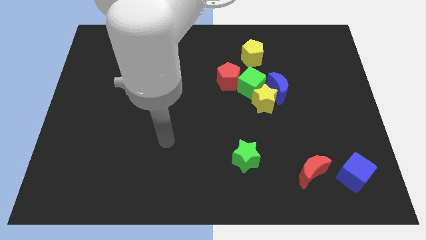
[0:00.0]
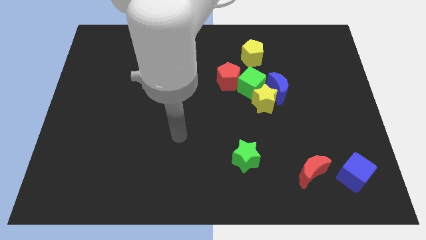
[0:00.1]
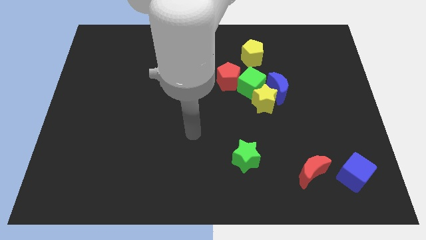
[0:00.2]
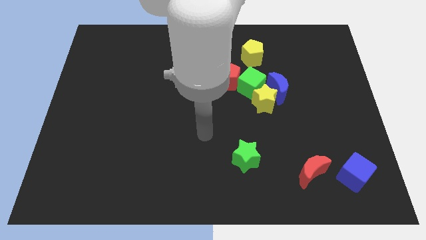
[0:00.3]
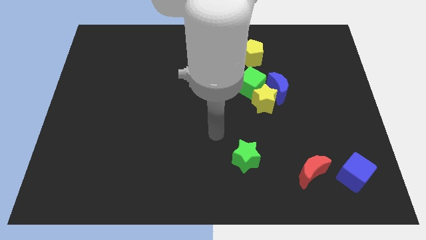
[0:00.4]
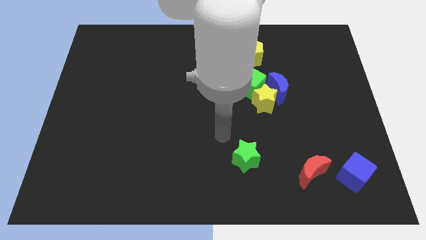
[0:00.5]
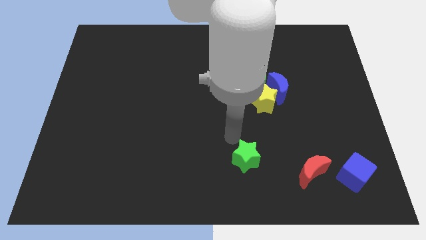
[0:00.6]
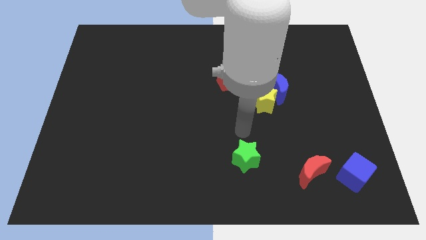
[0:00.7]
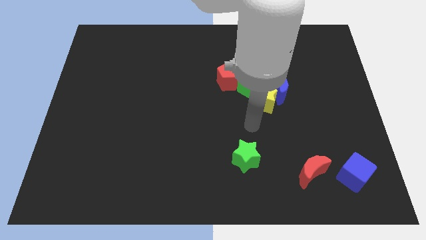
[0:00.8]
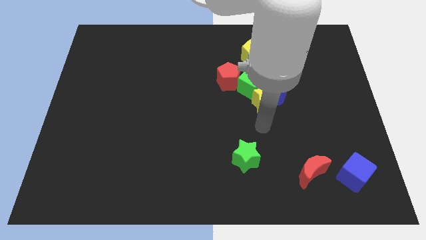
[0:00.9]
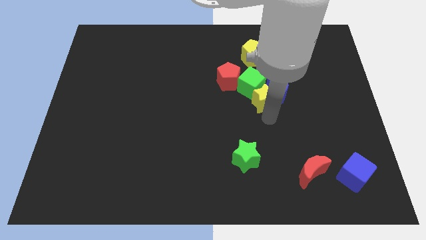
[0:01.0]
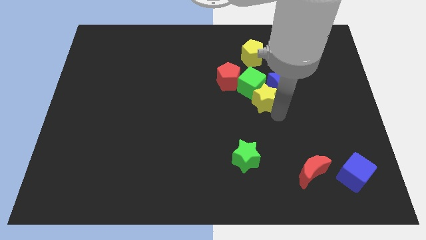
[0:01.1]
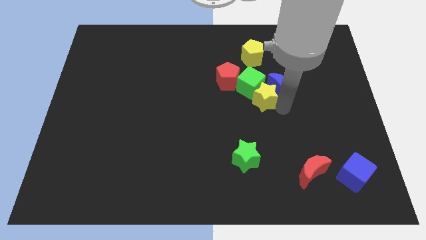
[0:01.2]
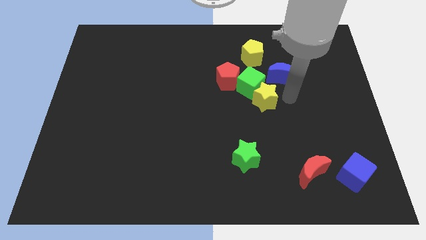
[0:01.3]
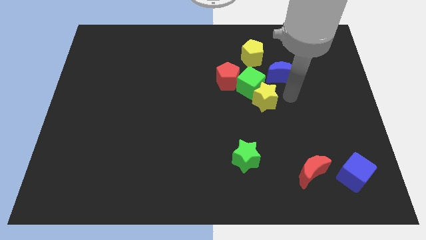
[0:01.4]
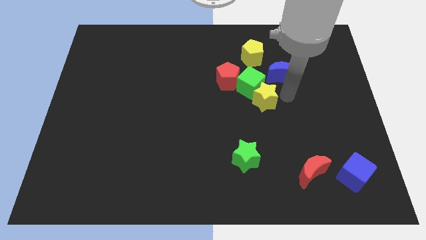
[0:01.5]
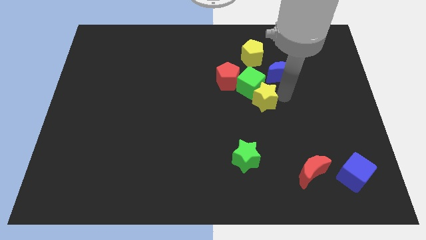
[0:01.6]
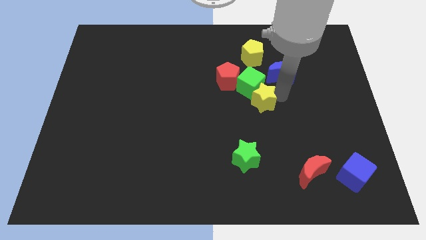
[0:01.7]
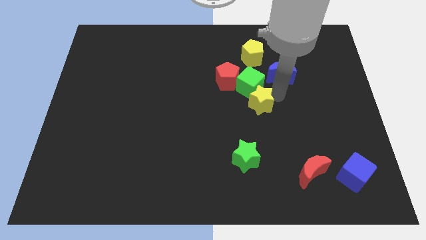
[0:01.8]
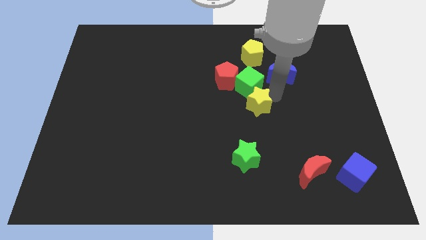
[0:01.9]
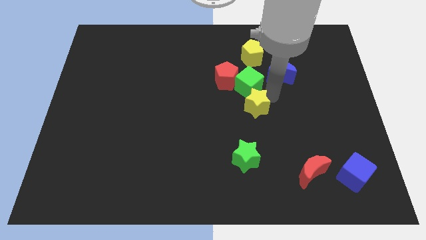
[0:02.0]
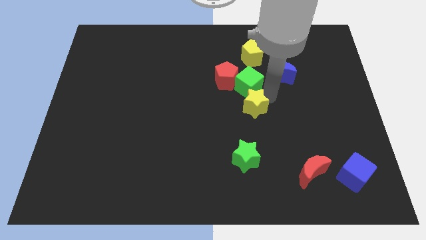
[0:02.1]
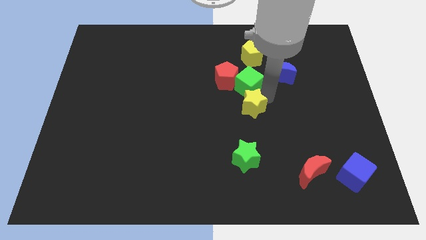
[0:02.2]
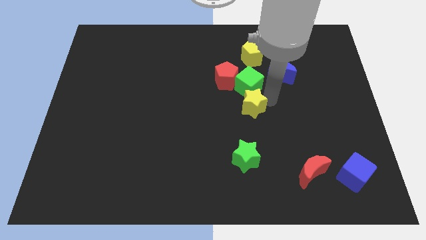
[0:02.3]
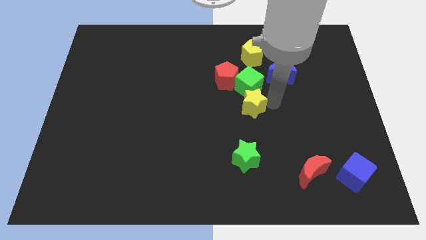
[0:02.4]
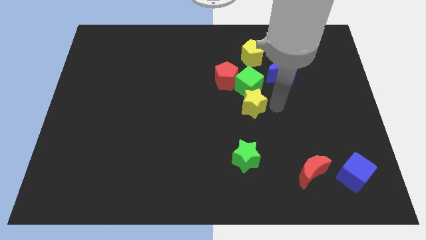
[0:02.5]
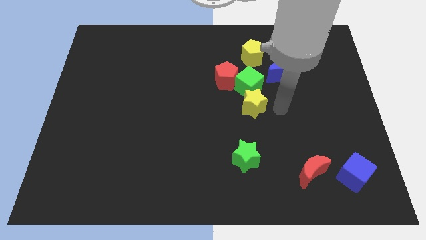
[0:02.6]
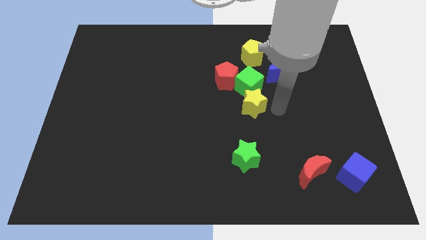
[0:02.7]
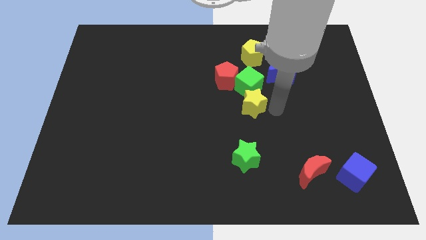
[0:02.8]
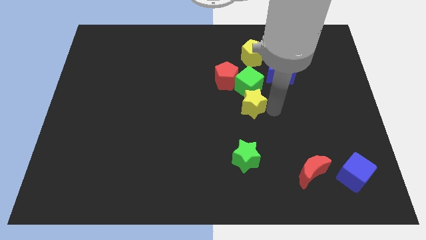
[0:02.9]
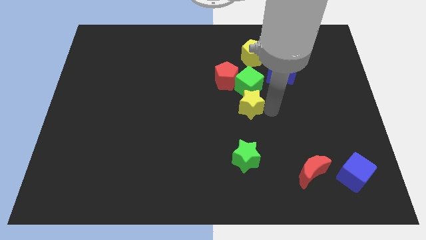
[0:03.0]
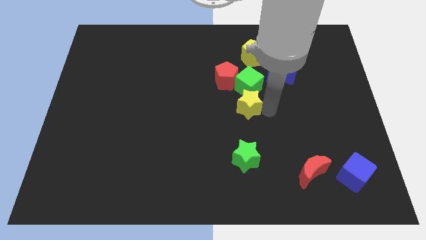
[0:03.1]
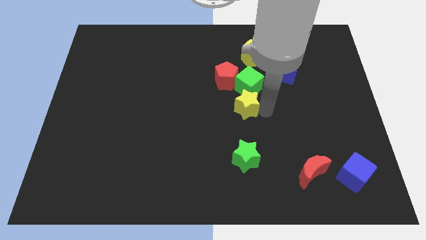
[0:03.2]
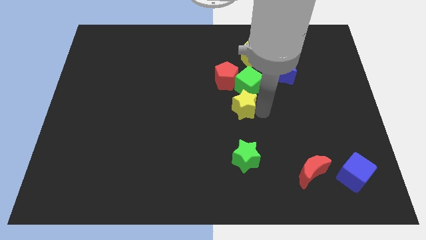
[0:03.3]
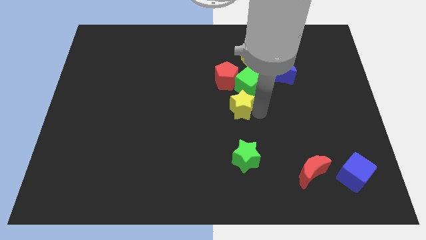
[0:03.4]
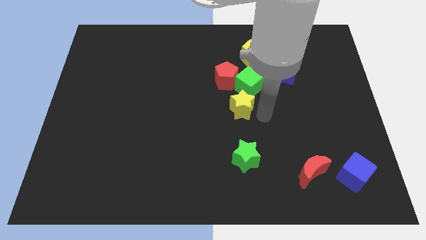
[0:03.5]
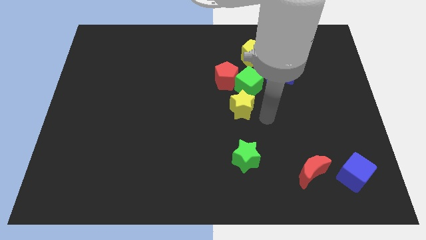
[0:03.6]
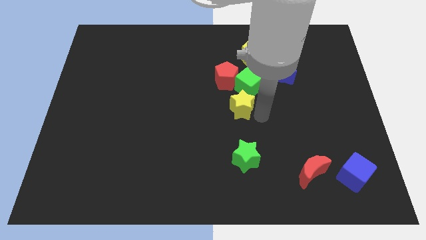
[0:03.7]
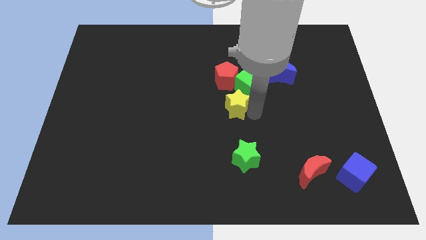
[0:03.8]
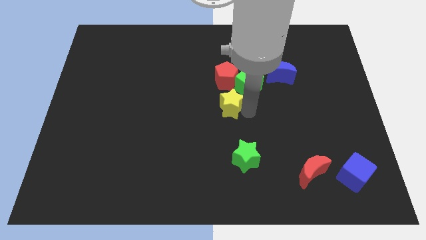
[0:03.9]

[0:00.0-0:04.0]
push the yellow star a bit to the left

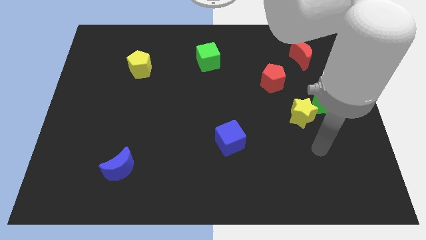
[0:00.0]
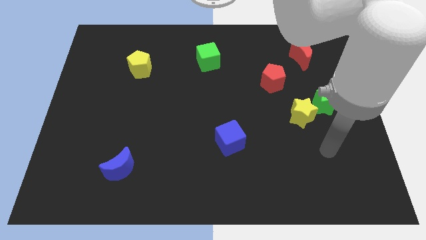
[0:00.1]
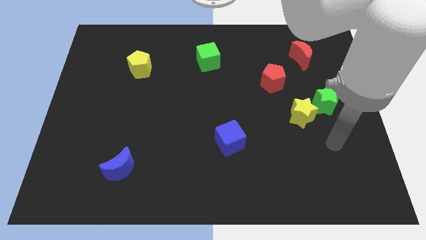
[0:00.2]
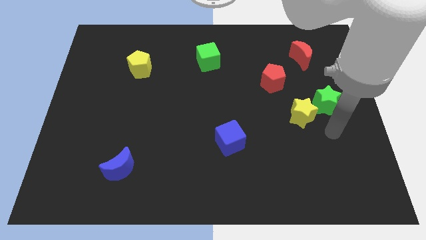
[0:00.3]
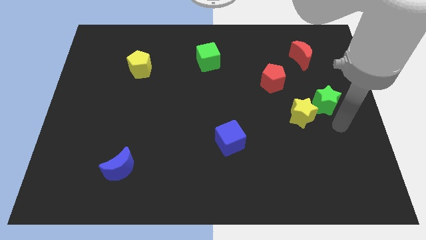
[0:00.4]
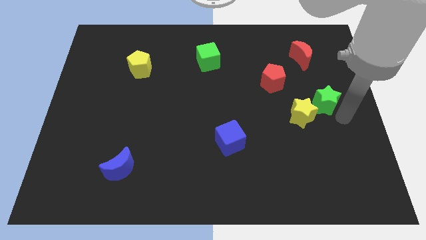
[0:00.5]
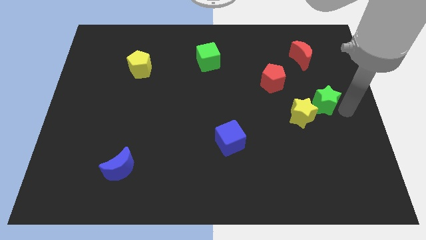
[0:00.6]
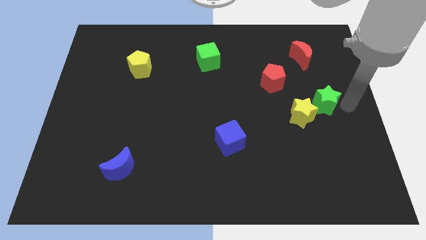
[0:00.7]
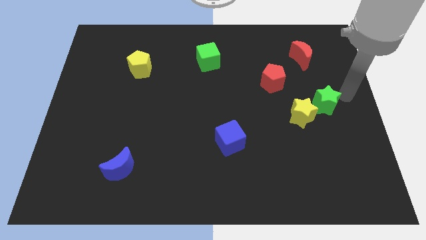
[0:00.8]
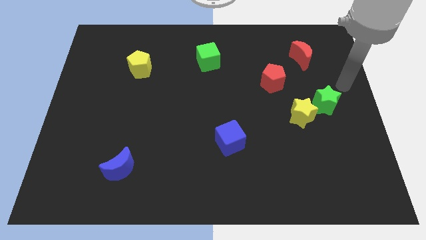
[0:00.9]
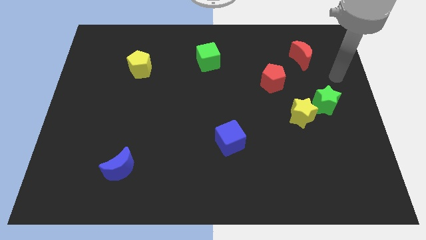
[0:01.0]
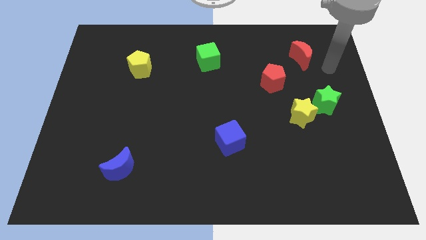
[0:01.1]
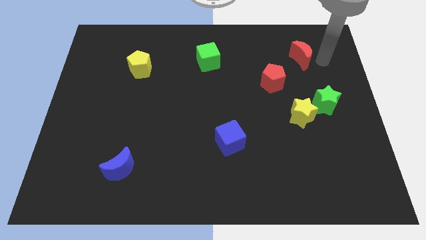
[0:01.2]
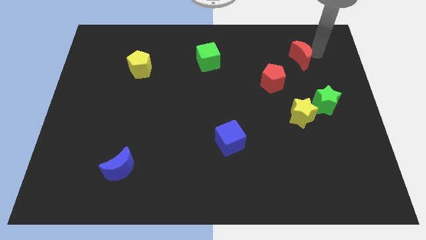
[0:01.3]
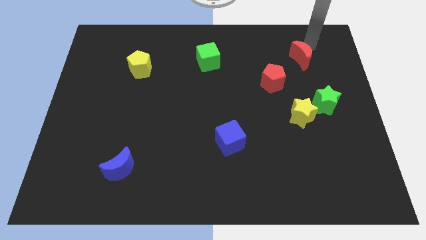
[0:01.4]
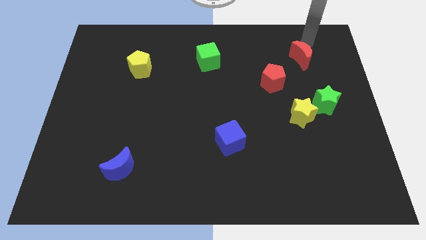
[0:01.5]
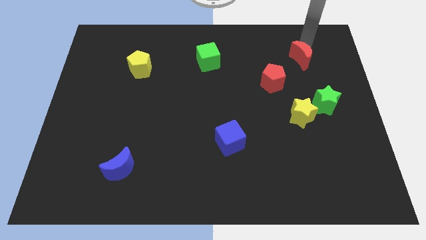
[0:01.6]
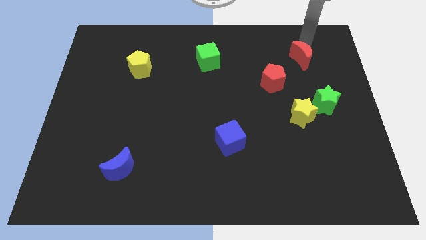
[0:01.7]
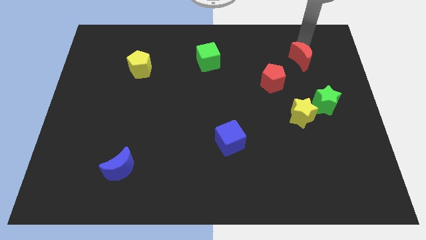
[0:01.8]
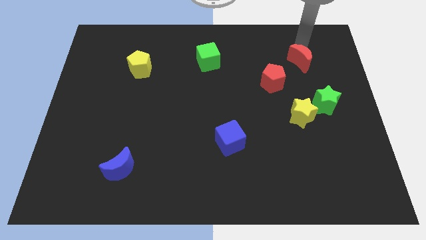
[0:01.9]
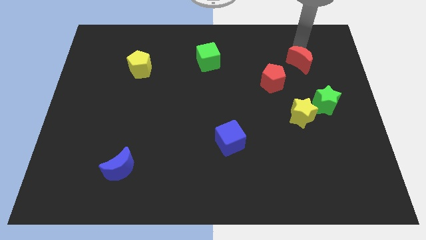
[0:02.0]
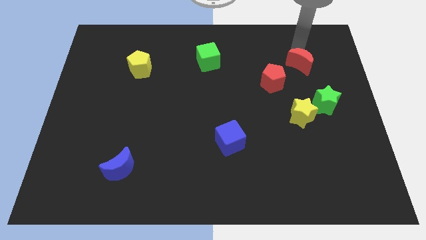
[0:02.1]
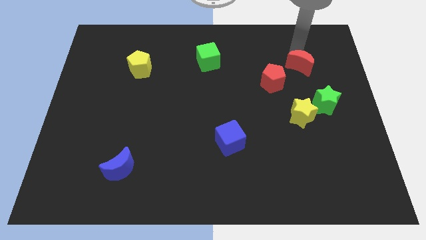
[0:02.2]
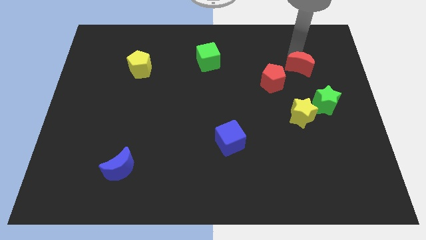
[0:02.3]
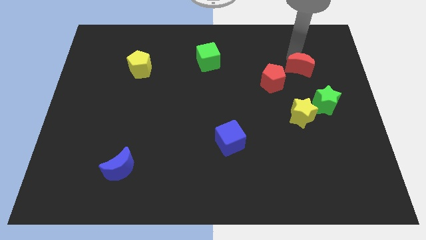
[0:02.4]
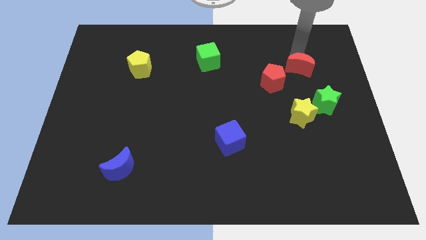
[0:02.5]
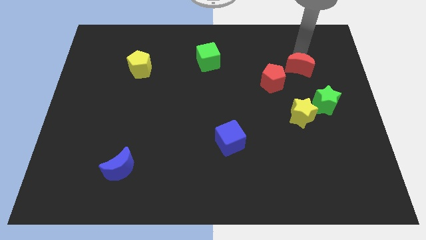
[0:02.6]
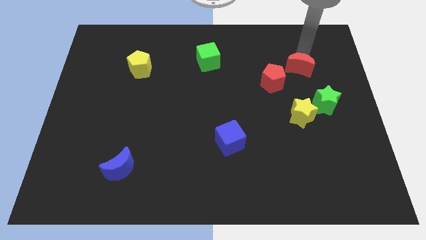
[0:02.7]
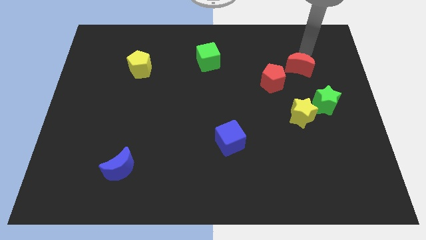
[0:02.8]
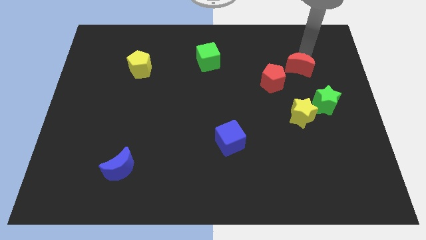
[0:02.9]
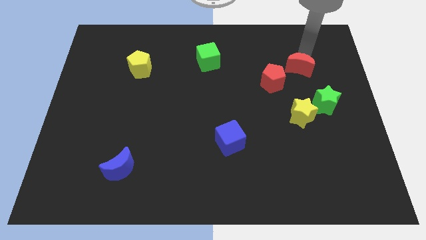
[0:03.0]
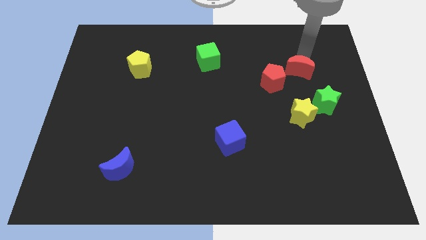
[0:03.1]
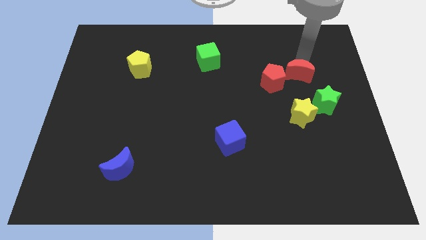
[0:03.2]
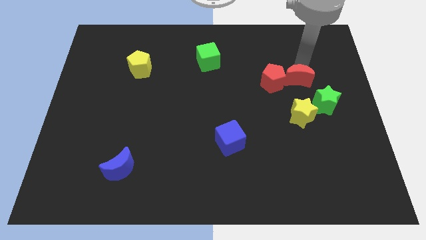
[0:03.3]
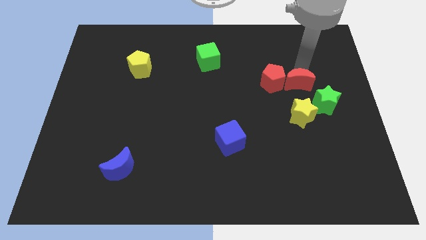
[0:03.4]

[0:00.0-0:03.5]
push the red moon a little bit diagonally down and left

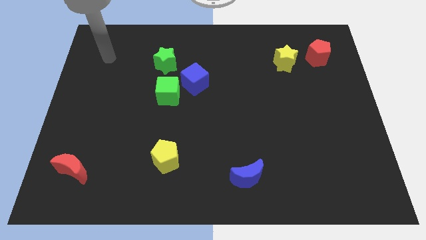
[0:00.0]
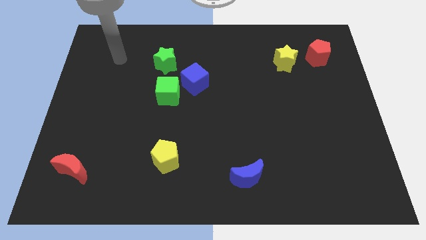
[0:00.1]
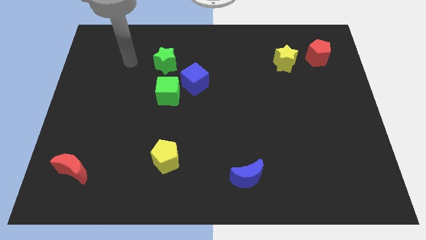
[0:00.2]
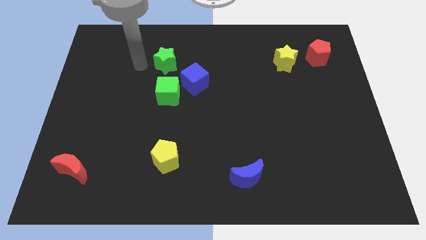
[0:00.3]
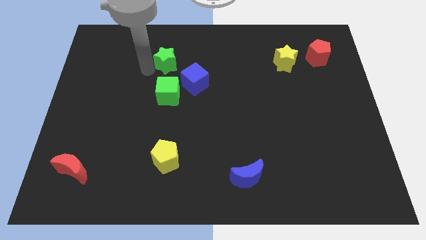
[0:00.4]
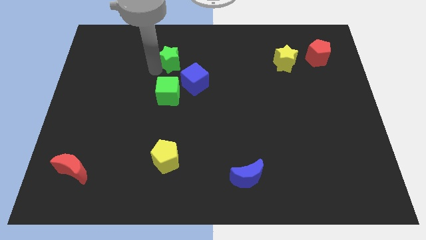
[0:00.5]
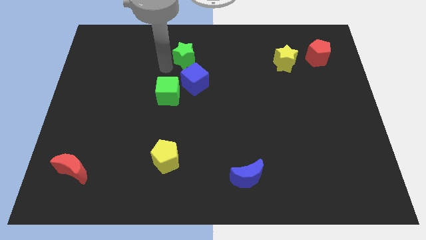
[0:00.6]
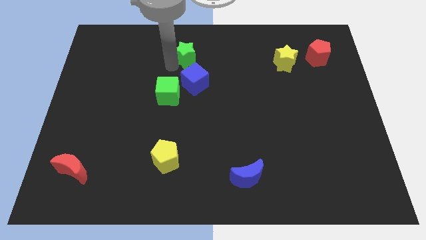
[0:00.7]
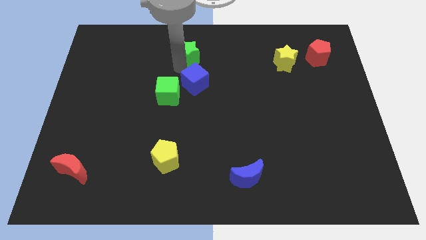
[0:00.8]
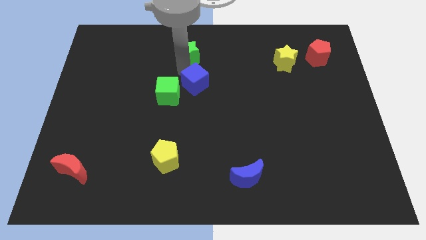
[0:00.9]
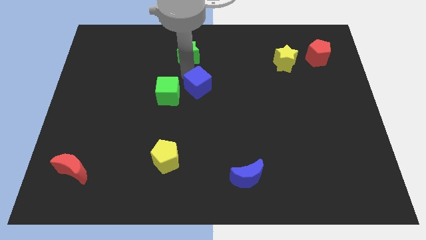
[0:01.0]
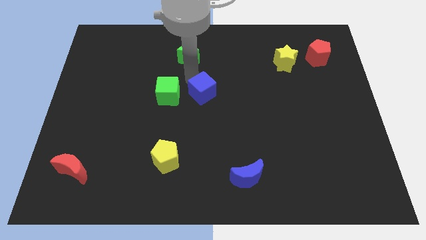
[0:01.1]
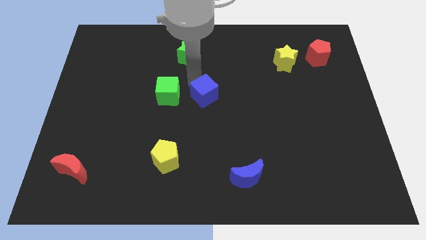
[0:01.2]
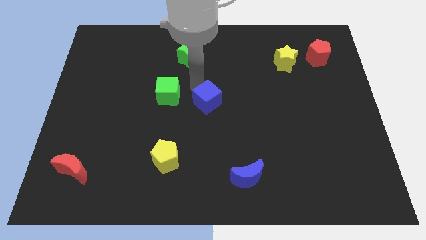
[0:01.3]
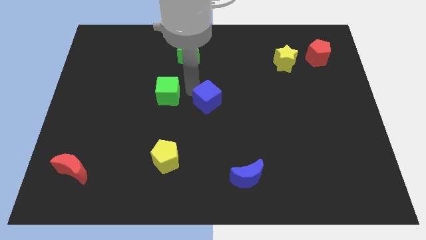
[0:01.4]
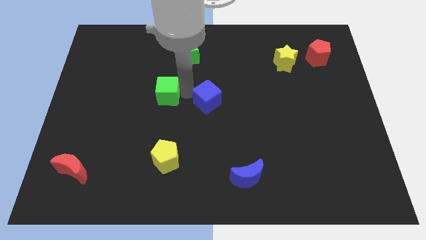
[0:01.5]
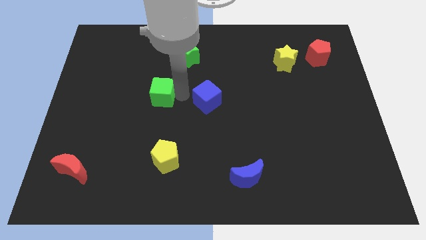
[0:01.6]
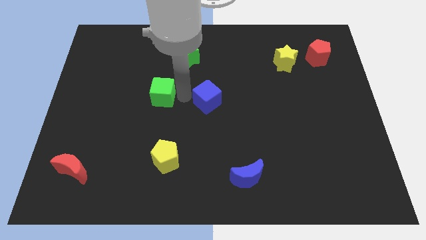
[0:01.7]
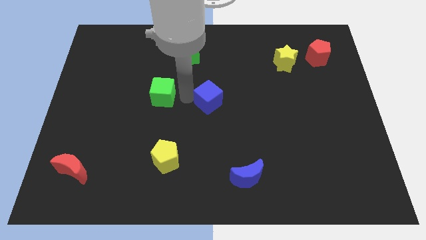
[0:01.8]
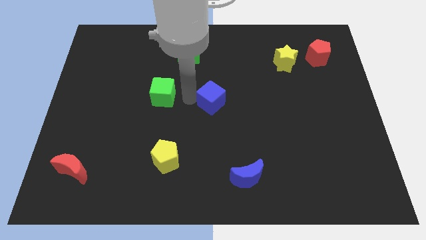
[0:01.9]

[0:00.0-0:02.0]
slide the blue cube diagonally downwards and right somewhat
